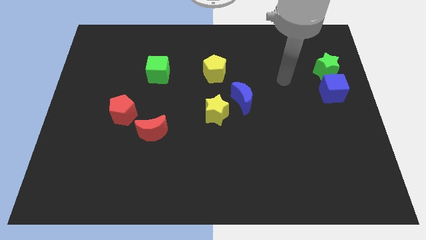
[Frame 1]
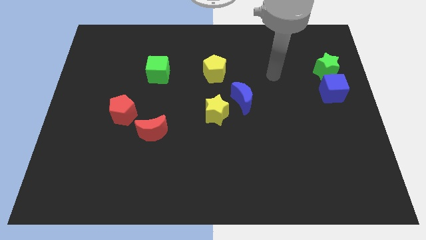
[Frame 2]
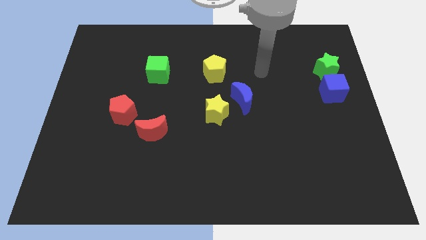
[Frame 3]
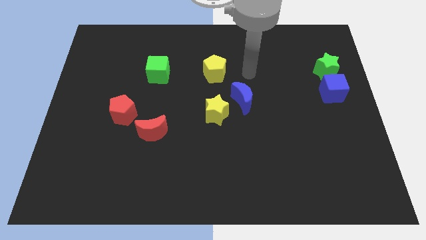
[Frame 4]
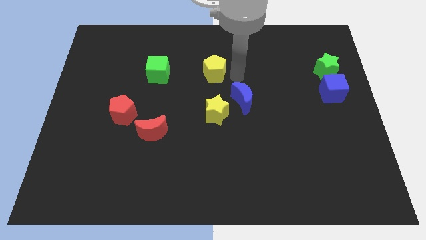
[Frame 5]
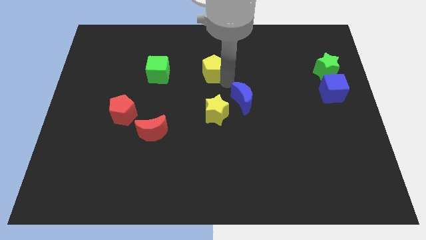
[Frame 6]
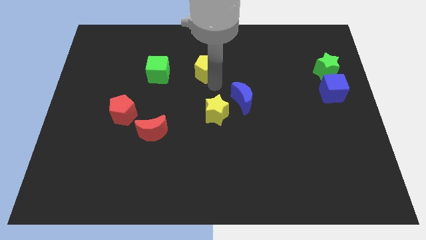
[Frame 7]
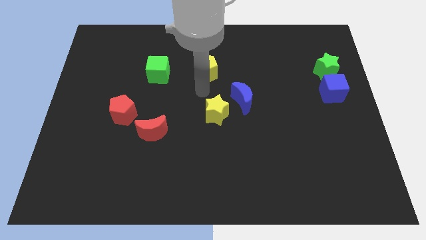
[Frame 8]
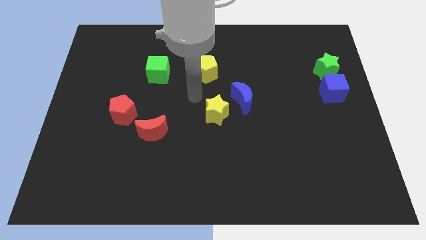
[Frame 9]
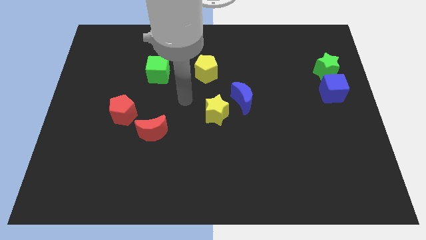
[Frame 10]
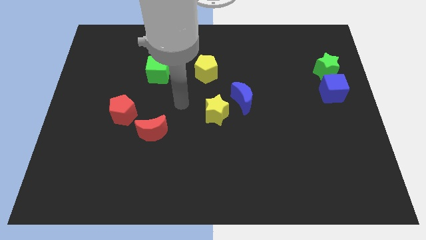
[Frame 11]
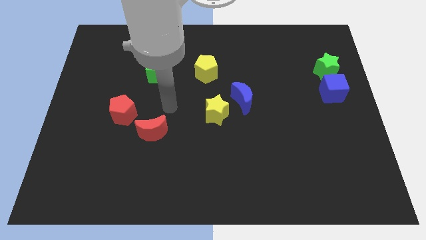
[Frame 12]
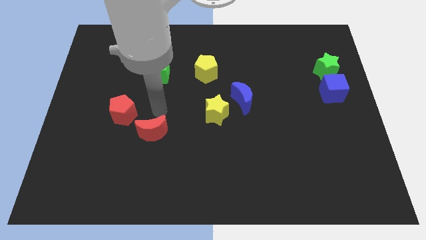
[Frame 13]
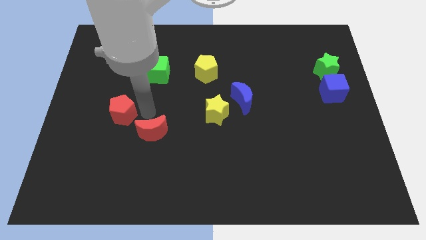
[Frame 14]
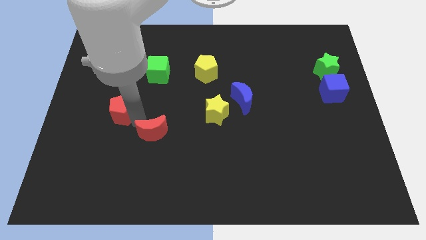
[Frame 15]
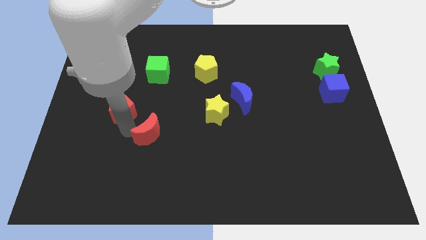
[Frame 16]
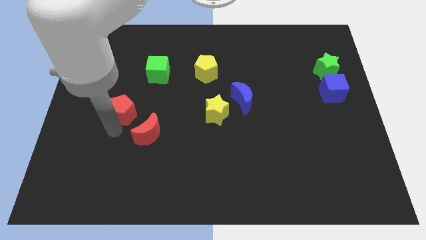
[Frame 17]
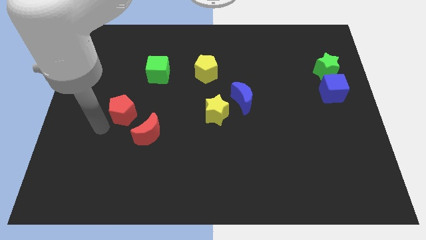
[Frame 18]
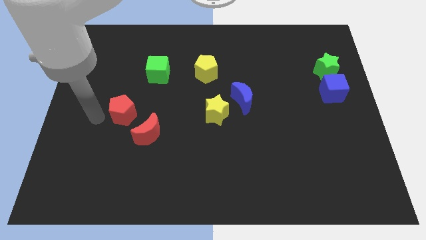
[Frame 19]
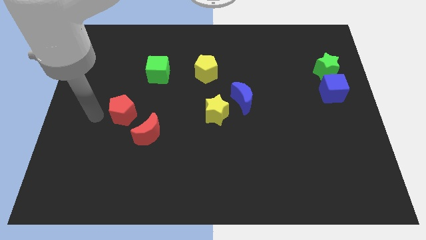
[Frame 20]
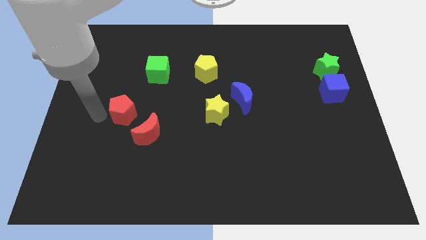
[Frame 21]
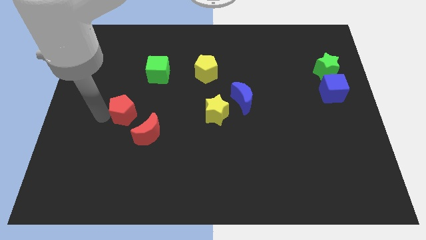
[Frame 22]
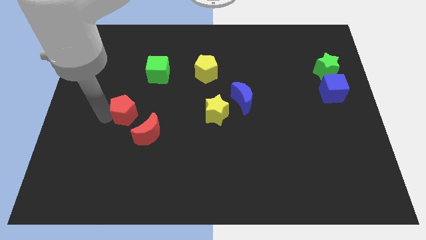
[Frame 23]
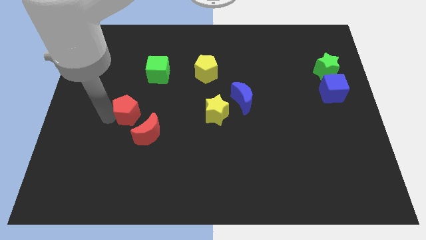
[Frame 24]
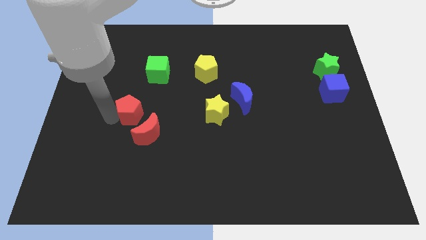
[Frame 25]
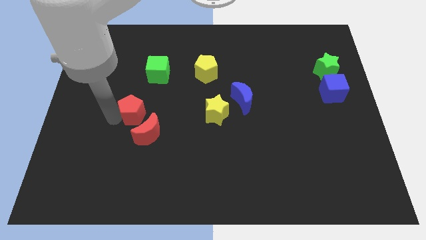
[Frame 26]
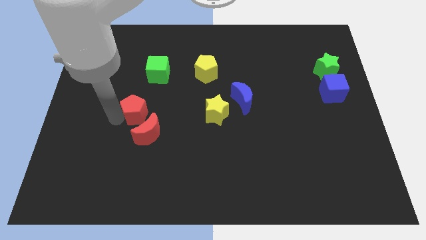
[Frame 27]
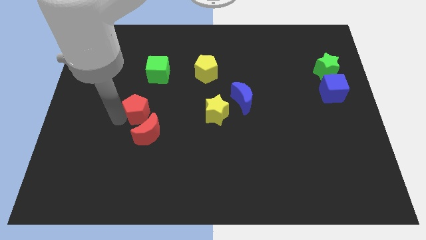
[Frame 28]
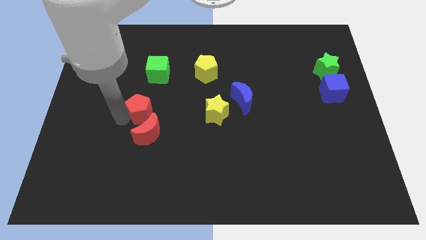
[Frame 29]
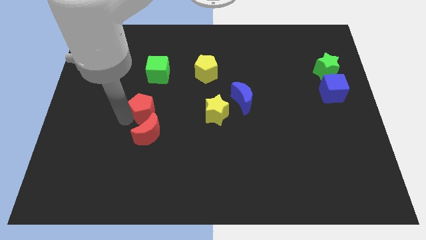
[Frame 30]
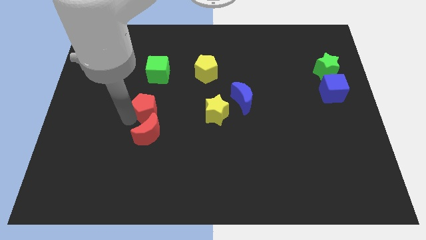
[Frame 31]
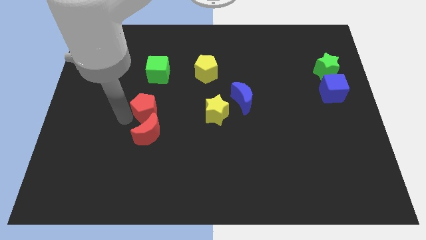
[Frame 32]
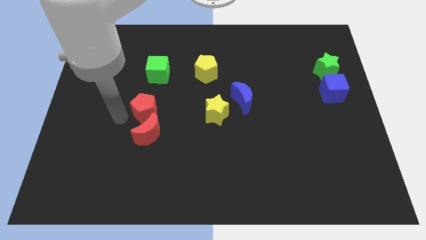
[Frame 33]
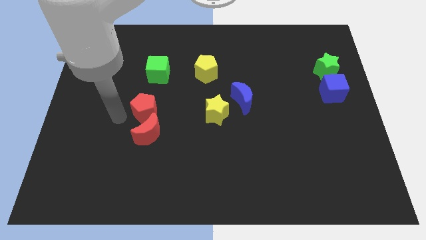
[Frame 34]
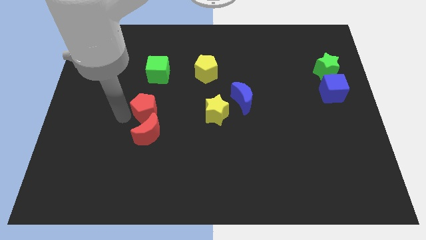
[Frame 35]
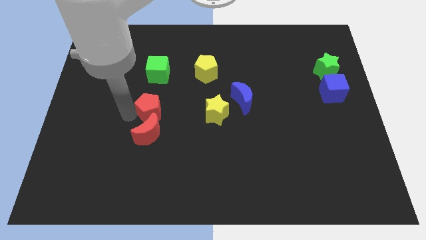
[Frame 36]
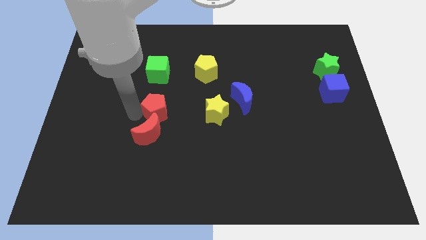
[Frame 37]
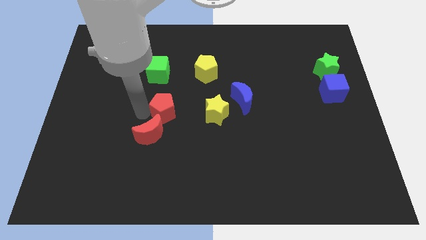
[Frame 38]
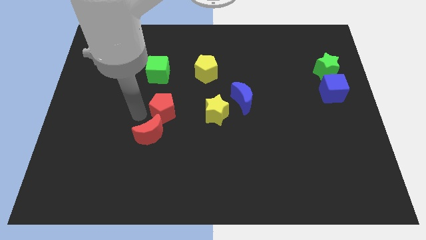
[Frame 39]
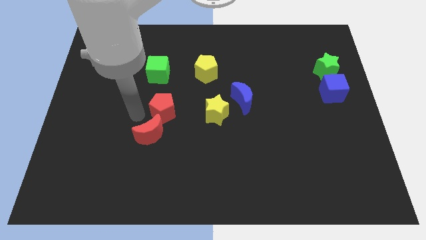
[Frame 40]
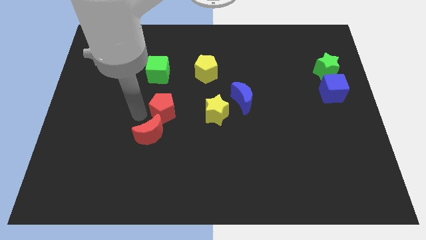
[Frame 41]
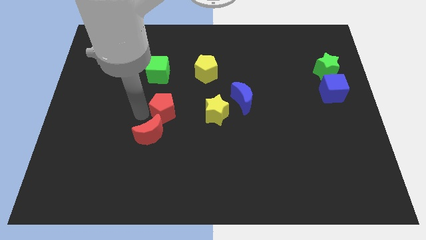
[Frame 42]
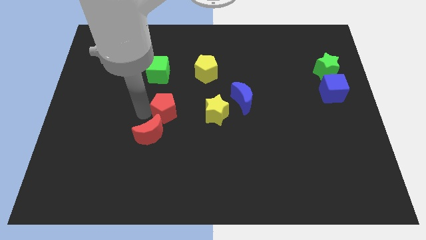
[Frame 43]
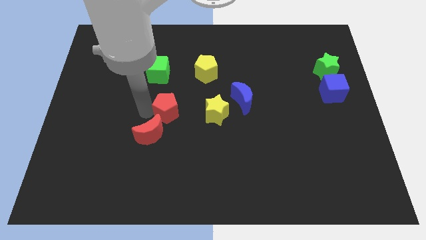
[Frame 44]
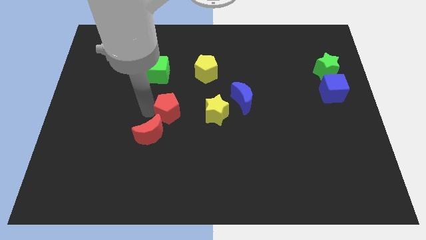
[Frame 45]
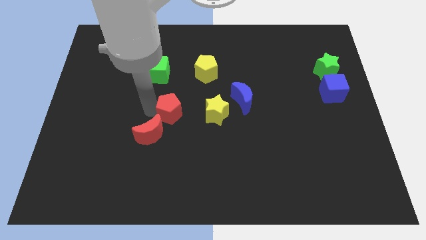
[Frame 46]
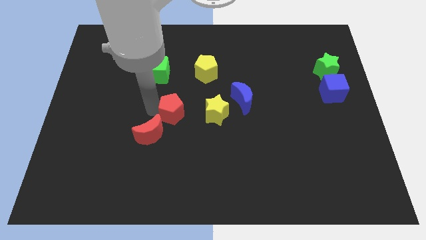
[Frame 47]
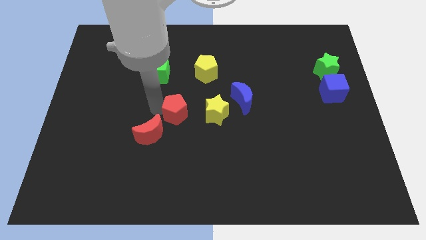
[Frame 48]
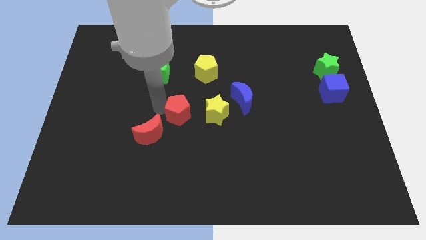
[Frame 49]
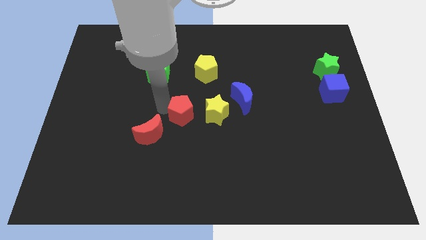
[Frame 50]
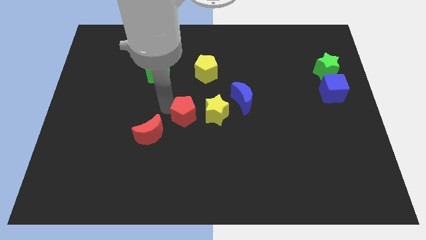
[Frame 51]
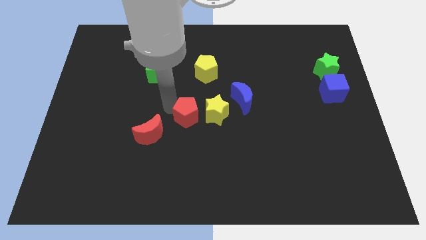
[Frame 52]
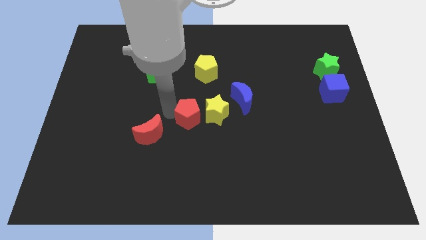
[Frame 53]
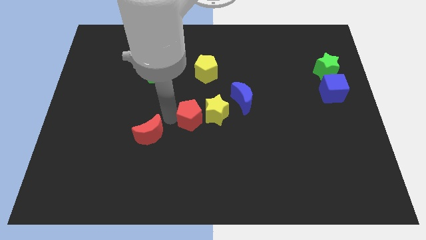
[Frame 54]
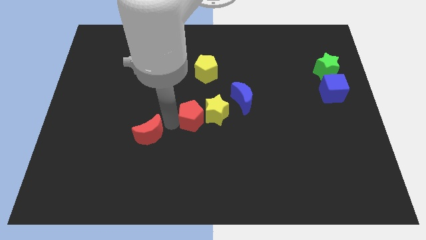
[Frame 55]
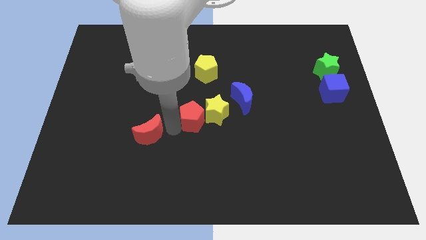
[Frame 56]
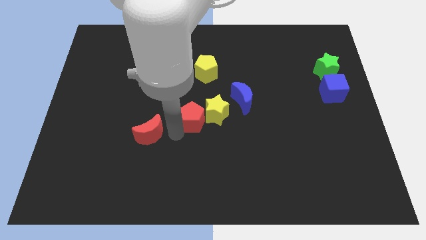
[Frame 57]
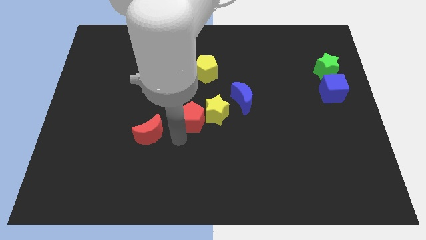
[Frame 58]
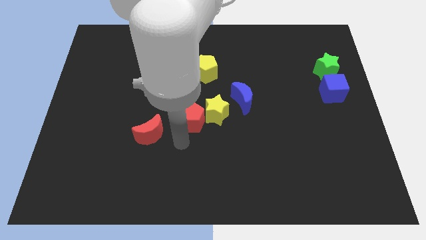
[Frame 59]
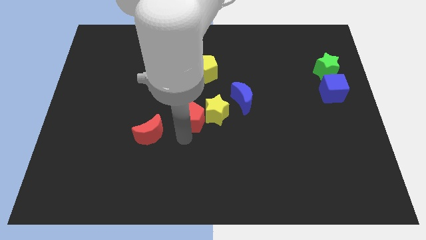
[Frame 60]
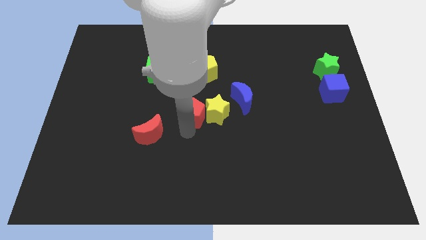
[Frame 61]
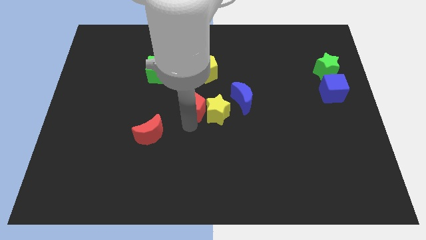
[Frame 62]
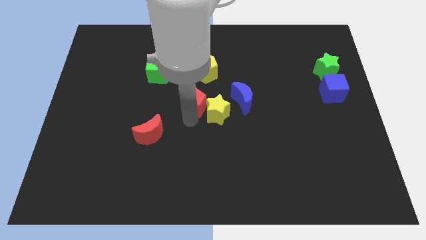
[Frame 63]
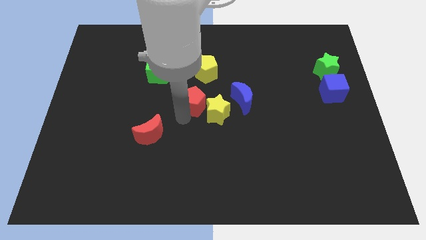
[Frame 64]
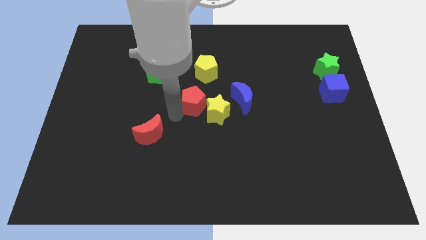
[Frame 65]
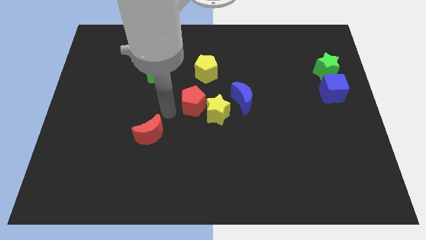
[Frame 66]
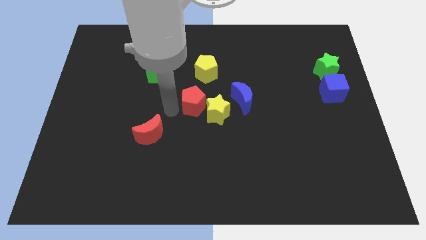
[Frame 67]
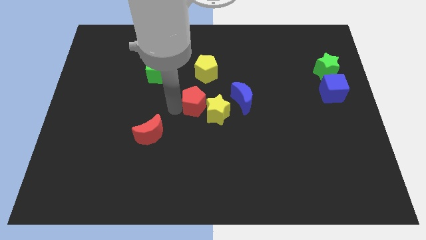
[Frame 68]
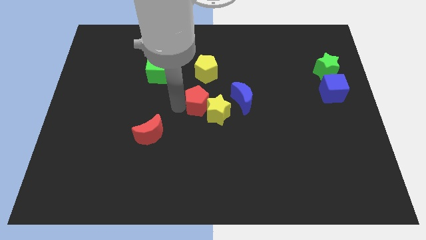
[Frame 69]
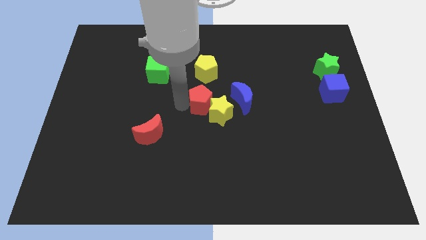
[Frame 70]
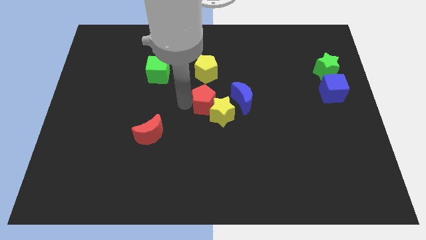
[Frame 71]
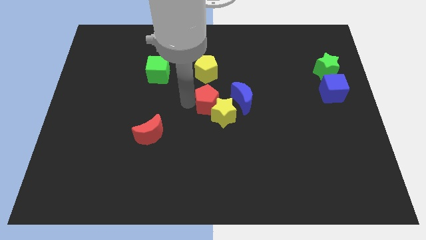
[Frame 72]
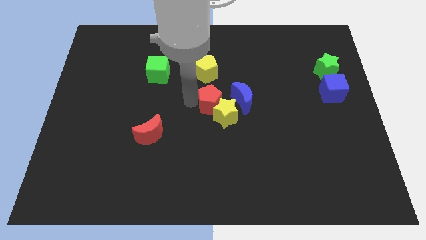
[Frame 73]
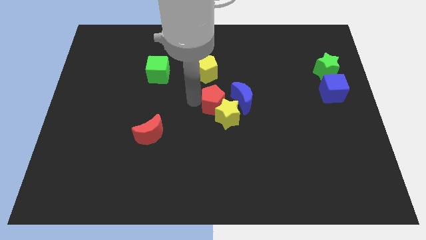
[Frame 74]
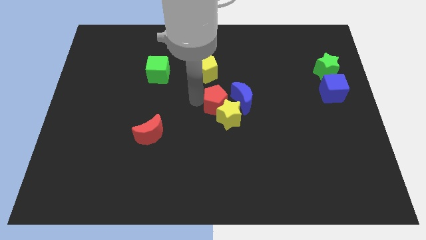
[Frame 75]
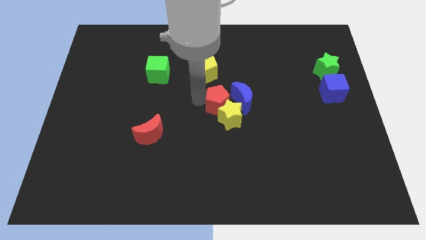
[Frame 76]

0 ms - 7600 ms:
push the red pentagon close to the blue moon
